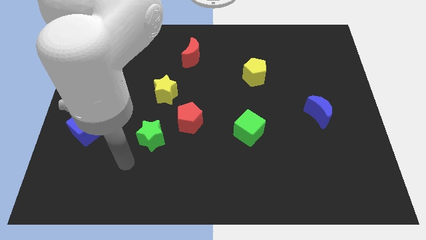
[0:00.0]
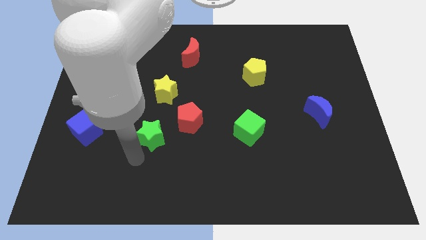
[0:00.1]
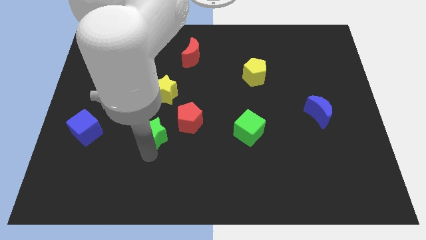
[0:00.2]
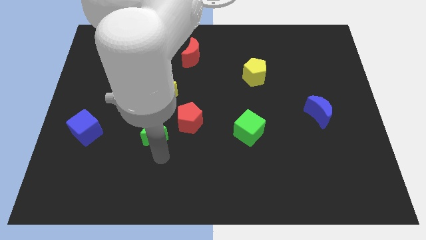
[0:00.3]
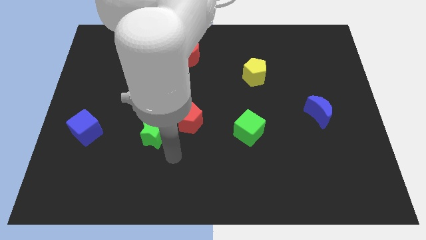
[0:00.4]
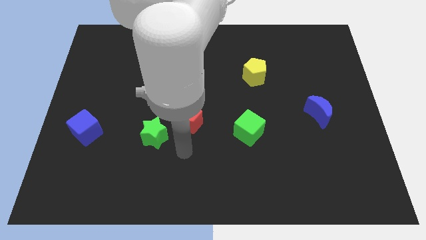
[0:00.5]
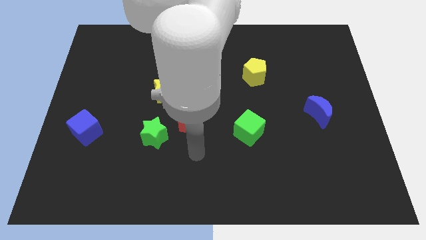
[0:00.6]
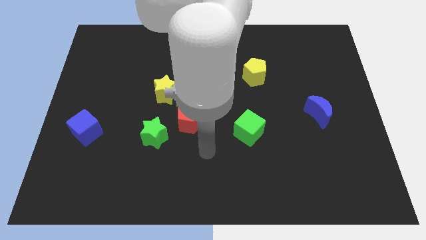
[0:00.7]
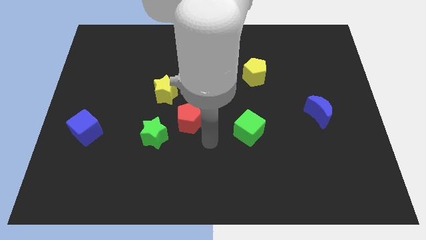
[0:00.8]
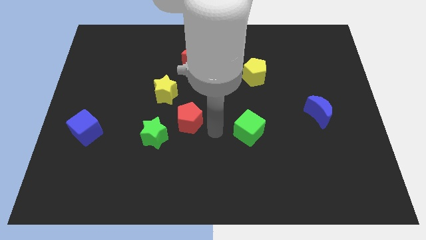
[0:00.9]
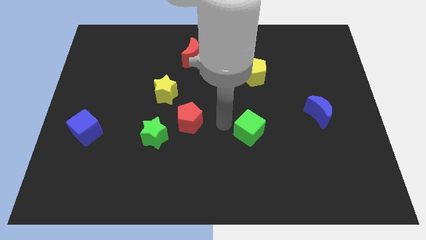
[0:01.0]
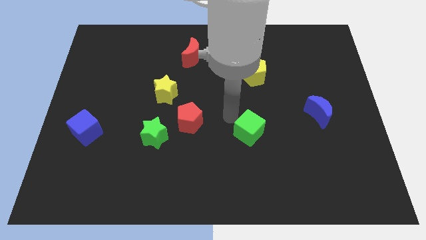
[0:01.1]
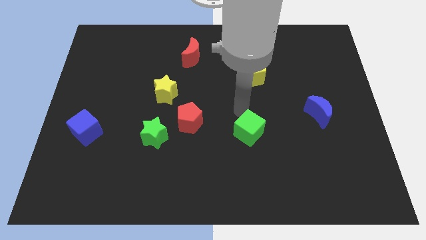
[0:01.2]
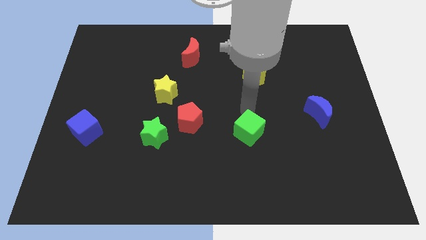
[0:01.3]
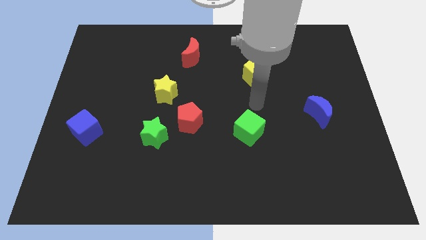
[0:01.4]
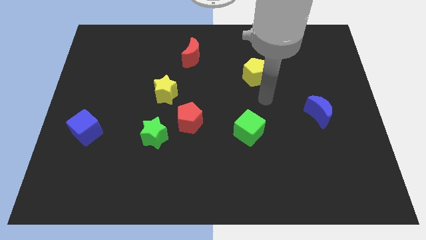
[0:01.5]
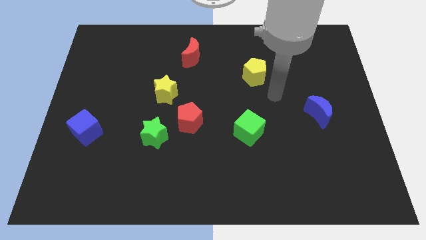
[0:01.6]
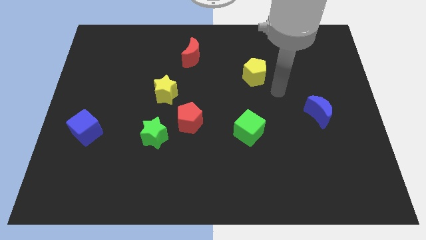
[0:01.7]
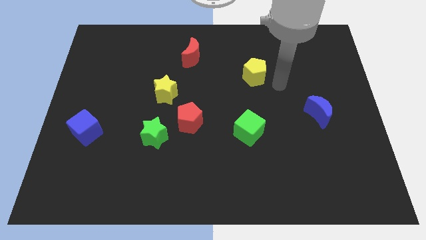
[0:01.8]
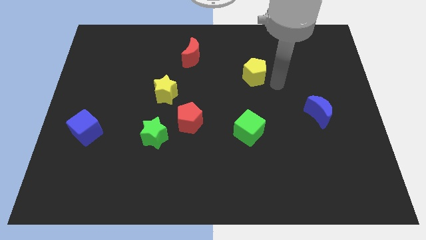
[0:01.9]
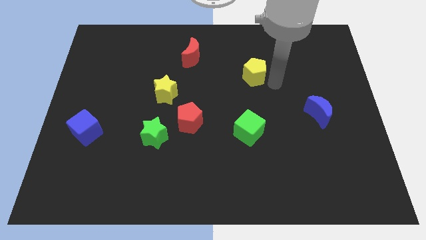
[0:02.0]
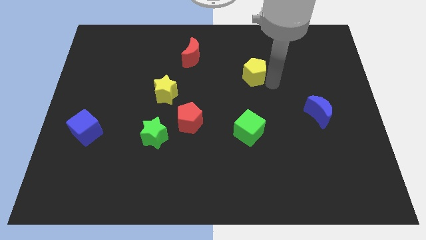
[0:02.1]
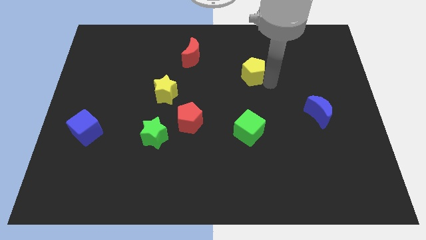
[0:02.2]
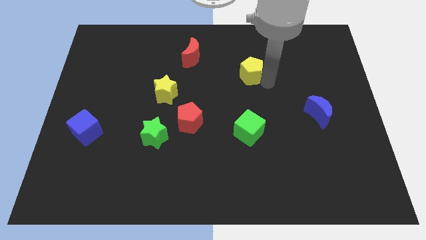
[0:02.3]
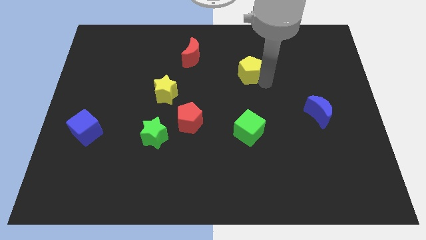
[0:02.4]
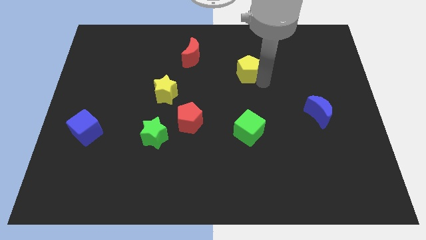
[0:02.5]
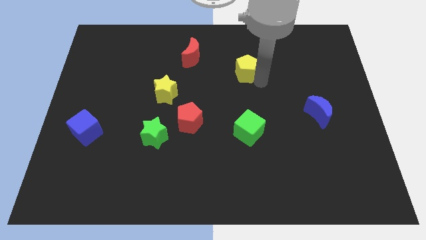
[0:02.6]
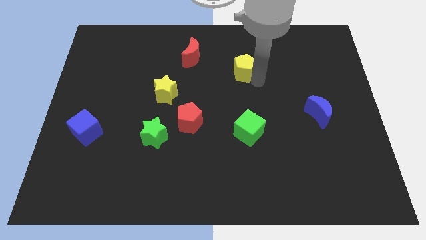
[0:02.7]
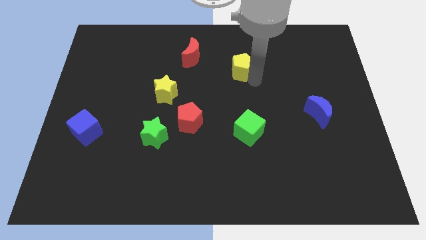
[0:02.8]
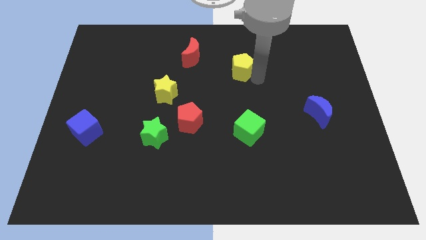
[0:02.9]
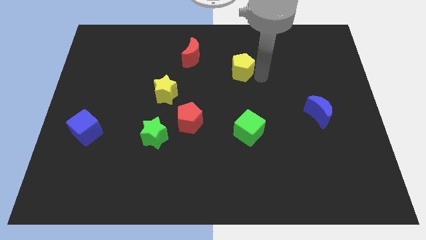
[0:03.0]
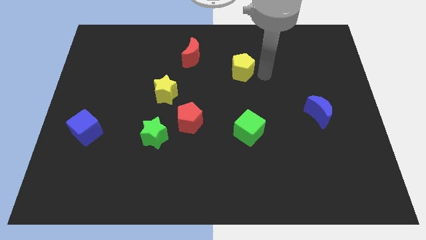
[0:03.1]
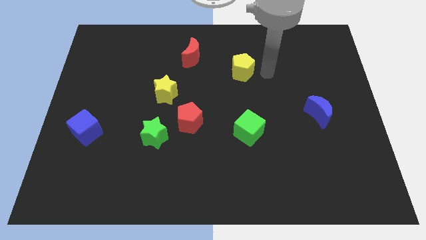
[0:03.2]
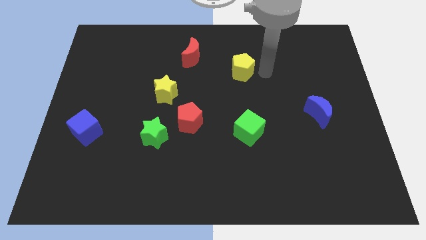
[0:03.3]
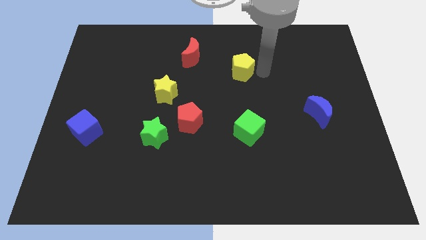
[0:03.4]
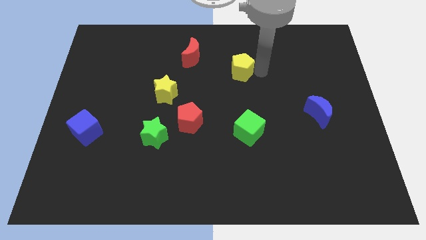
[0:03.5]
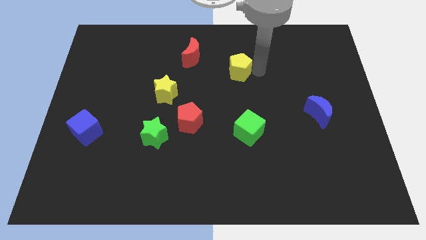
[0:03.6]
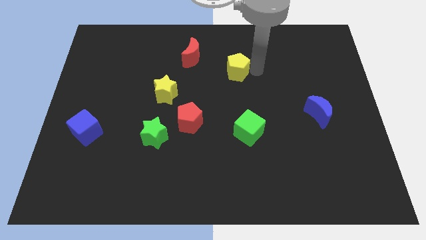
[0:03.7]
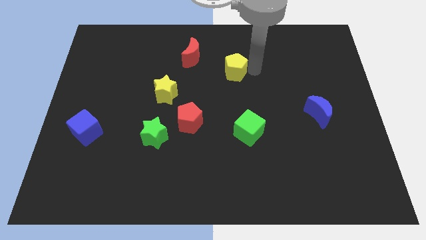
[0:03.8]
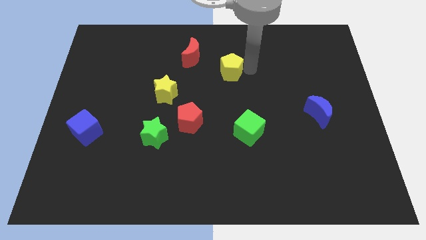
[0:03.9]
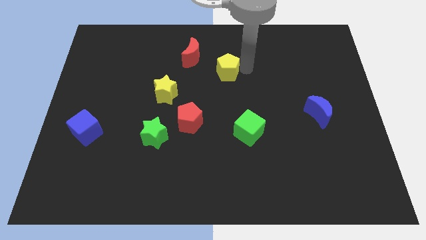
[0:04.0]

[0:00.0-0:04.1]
move the yellow pentagon a little to the left

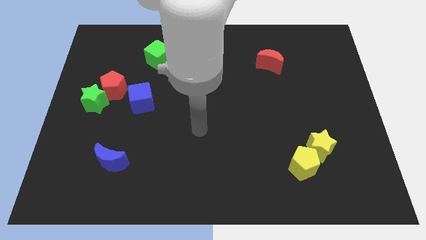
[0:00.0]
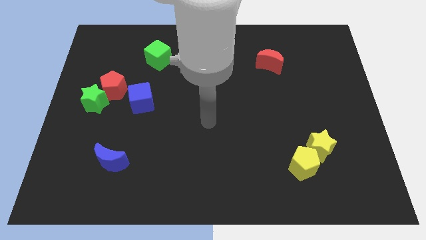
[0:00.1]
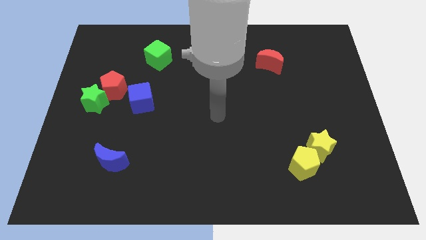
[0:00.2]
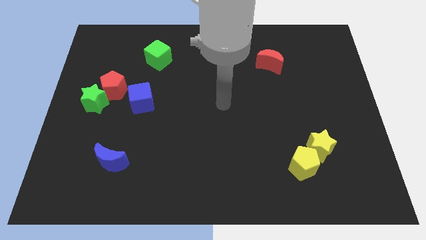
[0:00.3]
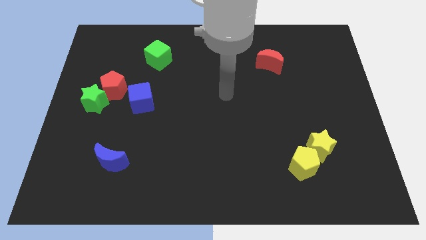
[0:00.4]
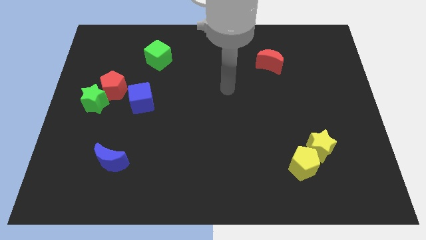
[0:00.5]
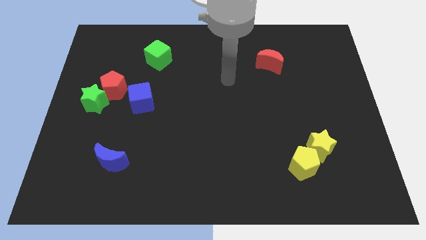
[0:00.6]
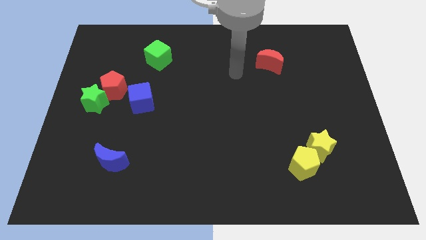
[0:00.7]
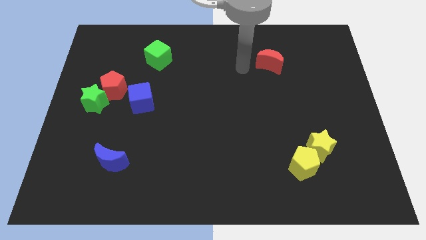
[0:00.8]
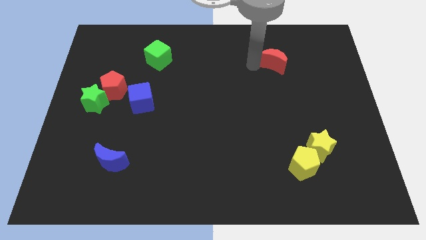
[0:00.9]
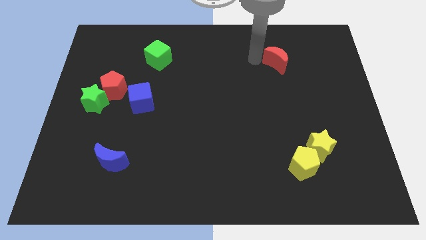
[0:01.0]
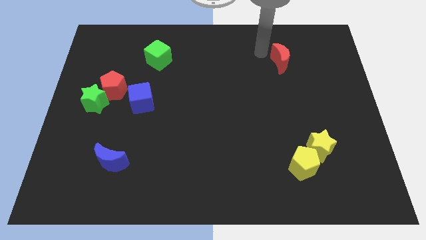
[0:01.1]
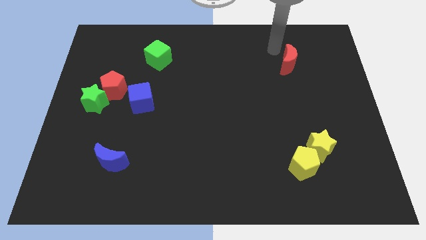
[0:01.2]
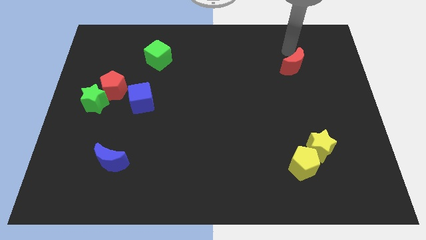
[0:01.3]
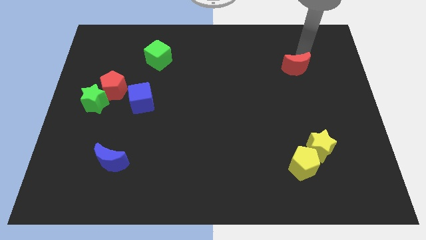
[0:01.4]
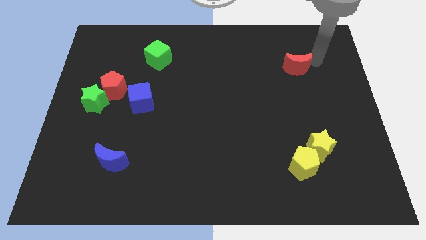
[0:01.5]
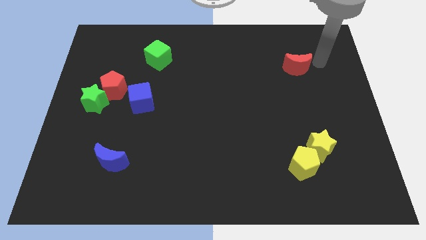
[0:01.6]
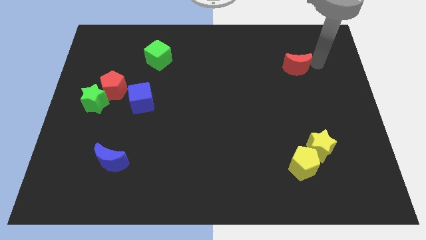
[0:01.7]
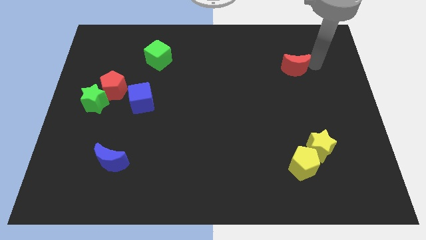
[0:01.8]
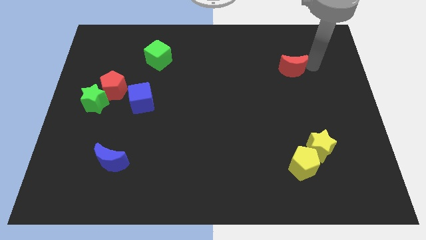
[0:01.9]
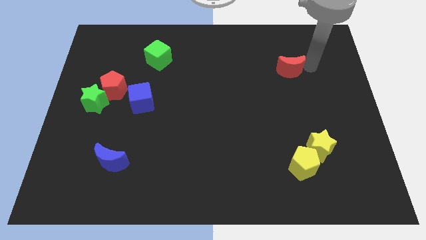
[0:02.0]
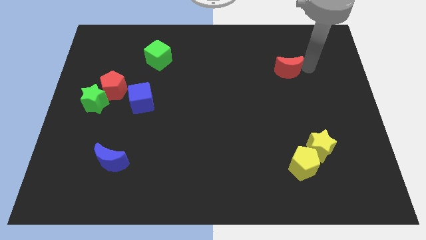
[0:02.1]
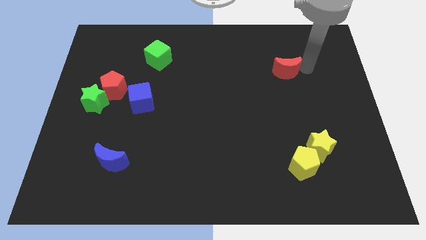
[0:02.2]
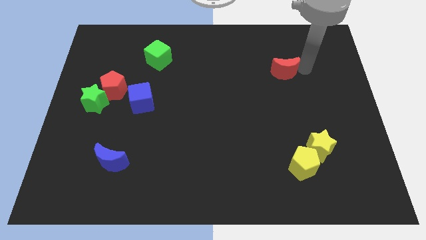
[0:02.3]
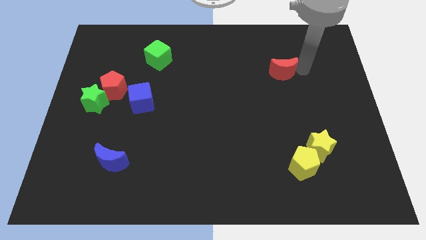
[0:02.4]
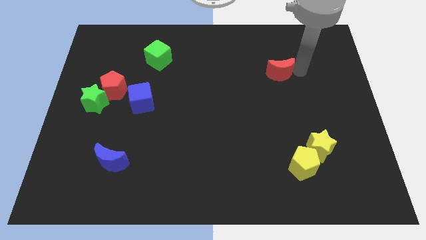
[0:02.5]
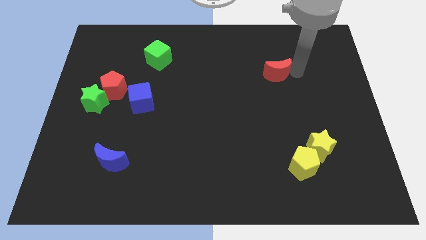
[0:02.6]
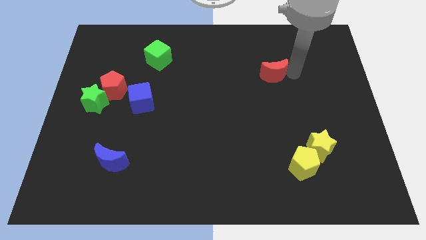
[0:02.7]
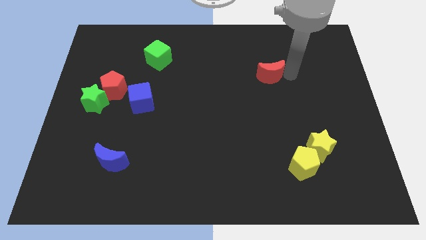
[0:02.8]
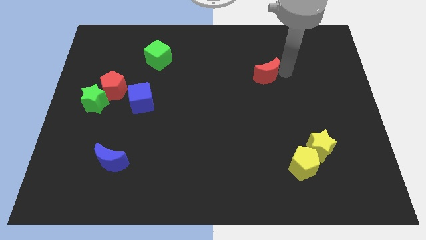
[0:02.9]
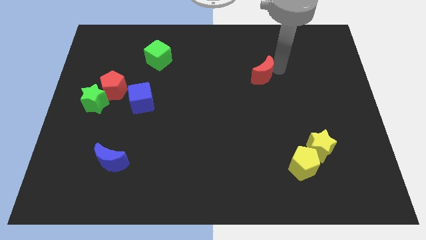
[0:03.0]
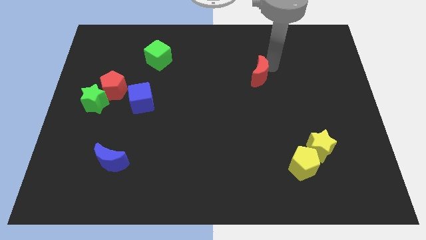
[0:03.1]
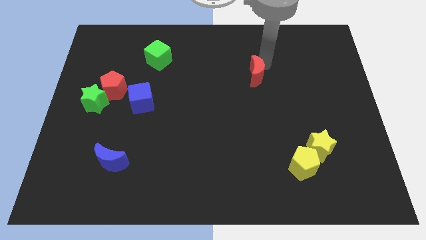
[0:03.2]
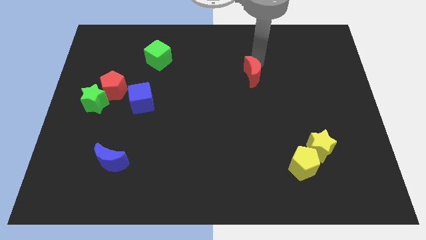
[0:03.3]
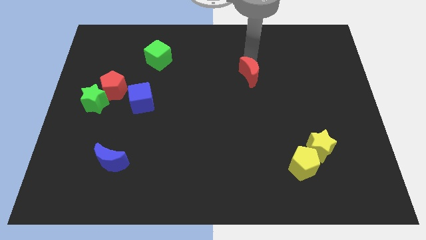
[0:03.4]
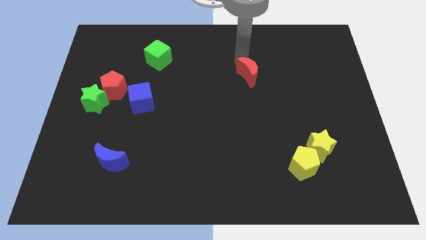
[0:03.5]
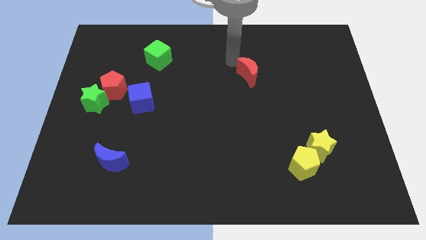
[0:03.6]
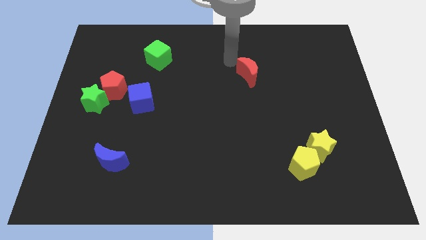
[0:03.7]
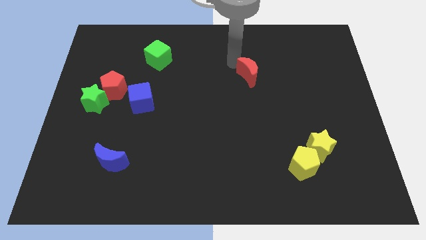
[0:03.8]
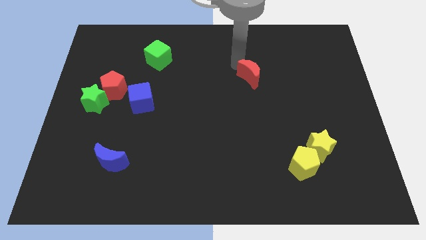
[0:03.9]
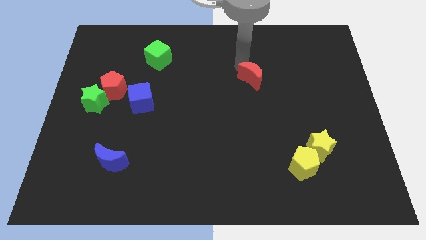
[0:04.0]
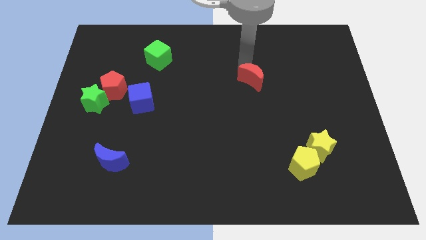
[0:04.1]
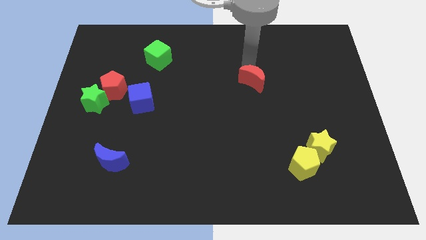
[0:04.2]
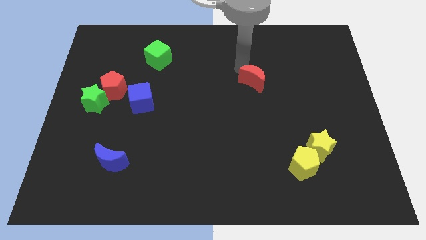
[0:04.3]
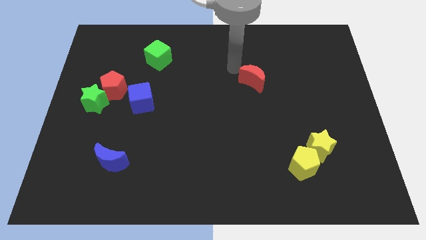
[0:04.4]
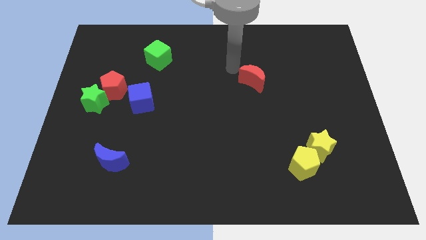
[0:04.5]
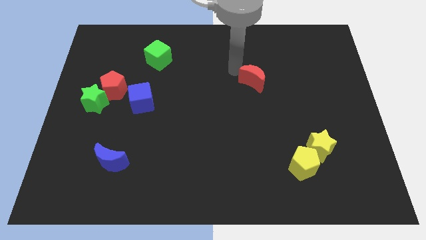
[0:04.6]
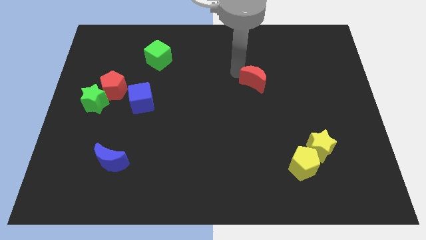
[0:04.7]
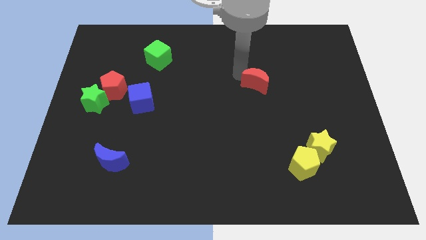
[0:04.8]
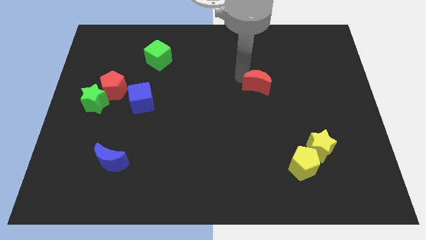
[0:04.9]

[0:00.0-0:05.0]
slightly push the red moon down
